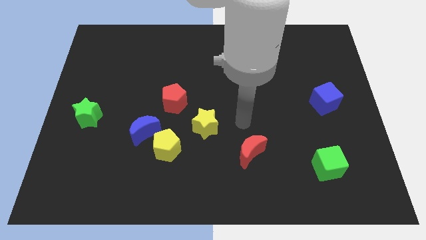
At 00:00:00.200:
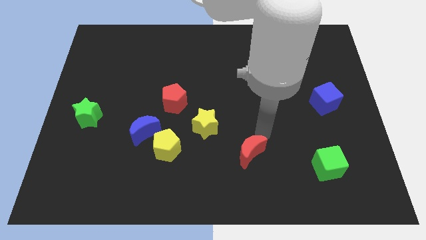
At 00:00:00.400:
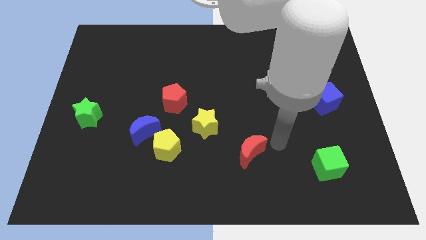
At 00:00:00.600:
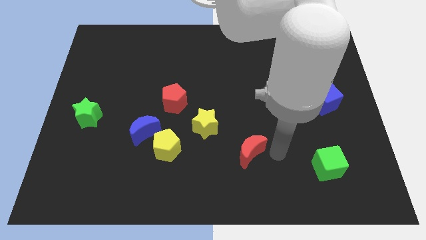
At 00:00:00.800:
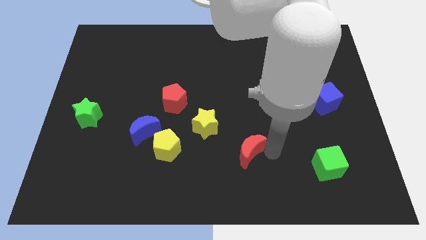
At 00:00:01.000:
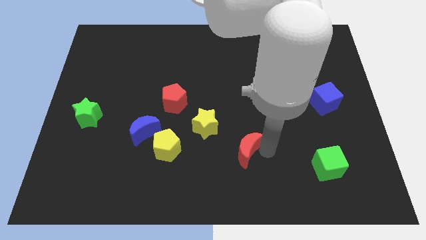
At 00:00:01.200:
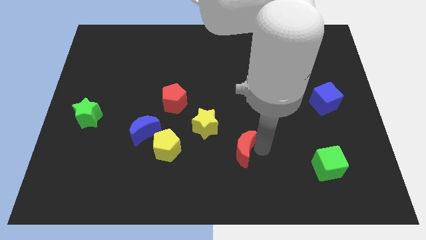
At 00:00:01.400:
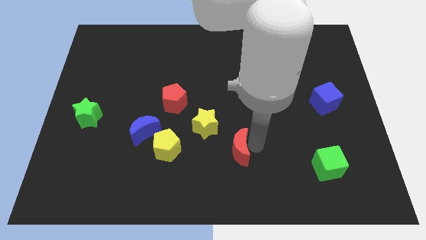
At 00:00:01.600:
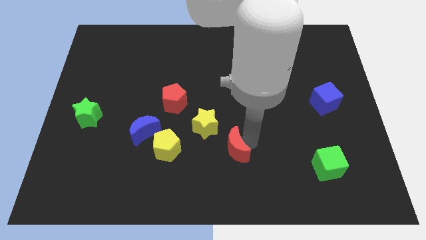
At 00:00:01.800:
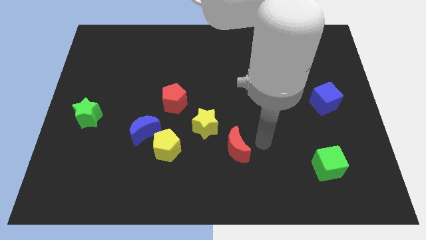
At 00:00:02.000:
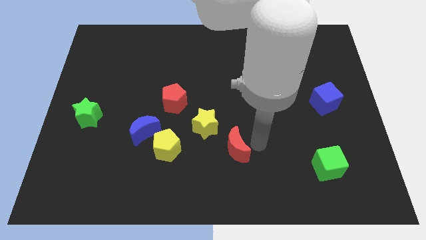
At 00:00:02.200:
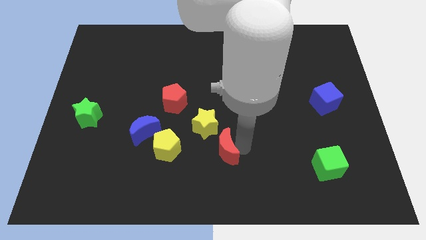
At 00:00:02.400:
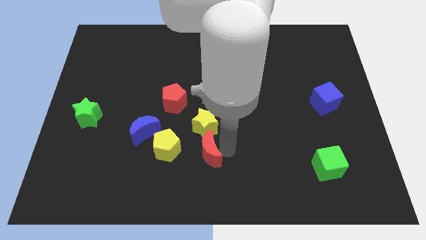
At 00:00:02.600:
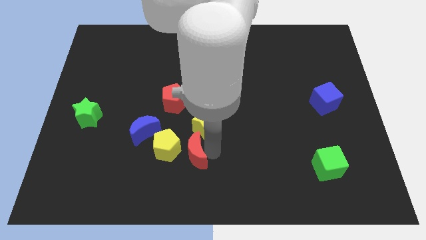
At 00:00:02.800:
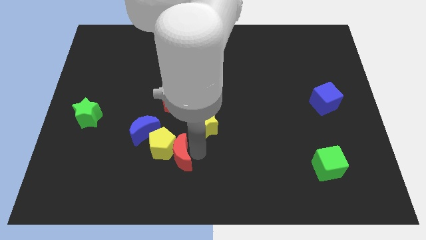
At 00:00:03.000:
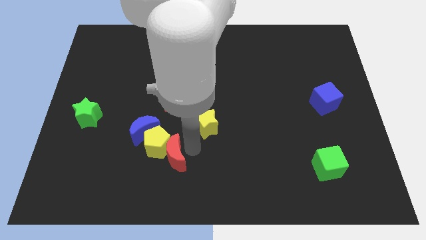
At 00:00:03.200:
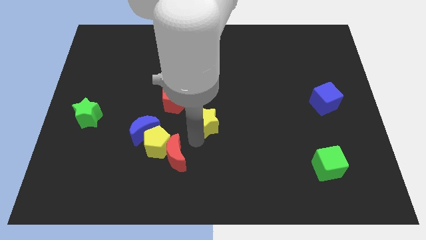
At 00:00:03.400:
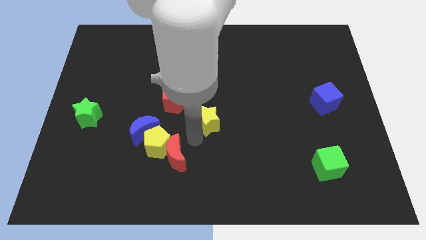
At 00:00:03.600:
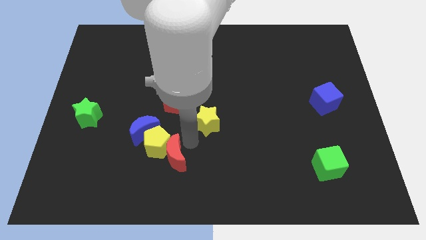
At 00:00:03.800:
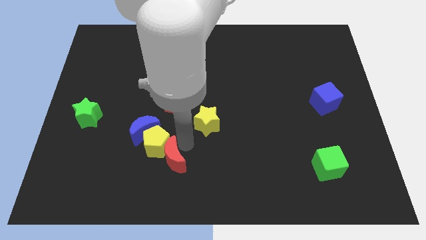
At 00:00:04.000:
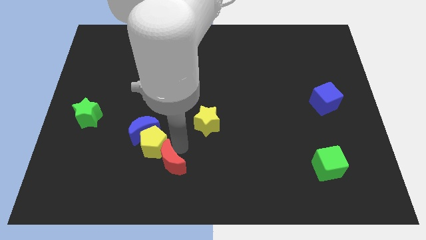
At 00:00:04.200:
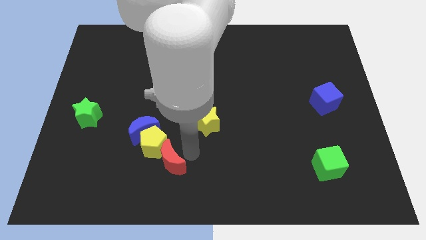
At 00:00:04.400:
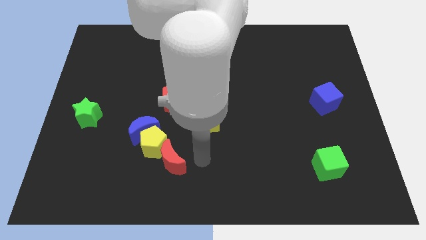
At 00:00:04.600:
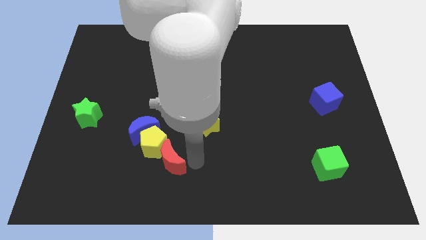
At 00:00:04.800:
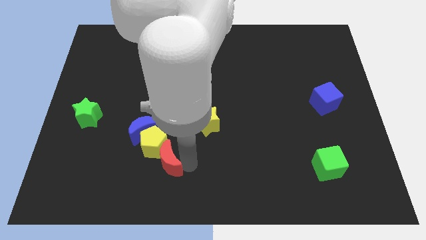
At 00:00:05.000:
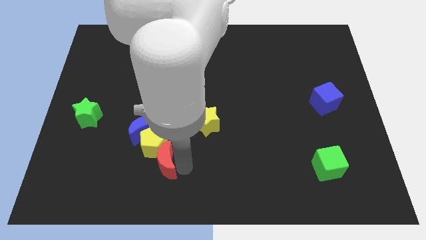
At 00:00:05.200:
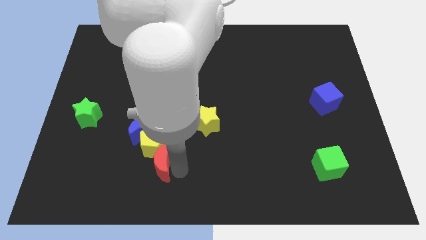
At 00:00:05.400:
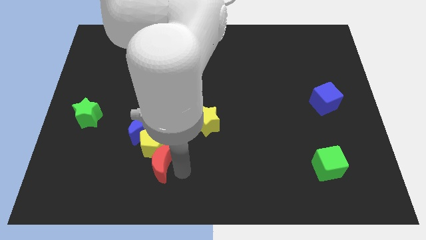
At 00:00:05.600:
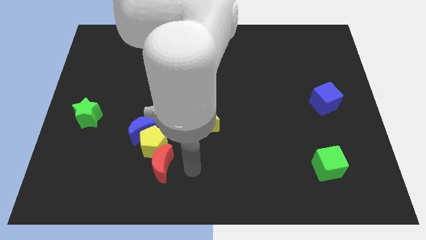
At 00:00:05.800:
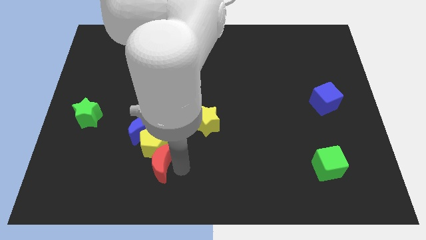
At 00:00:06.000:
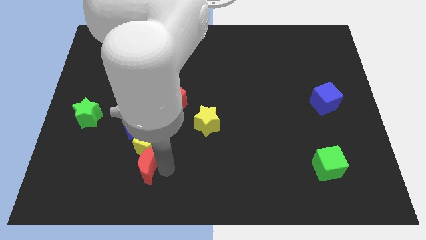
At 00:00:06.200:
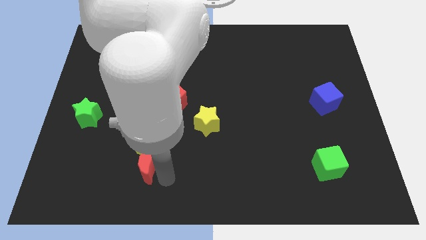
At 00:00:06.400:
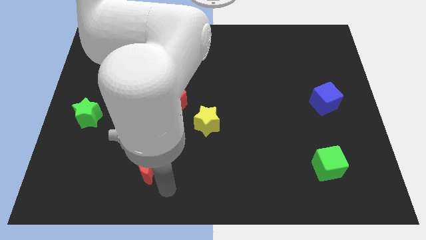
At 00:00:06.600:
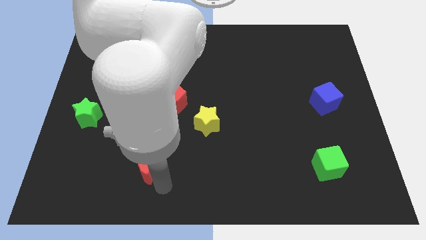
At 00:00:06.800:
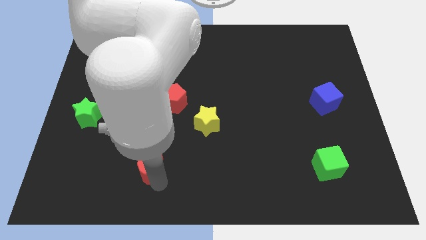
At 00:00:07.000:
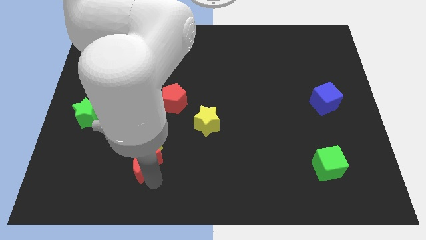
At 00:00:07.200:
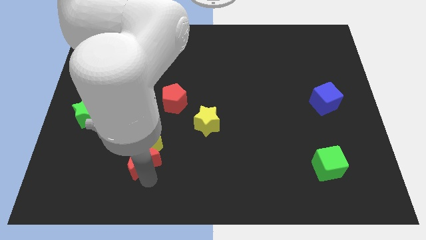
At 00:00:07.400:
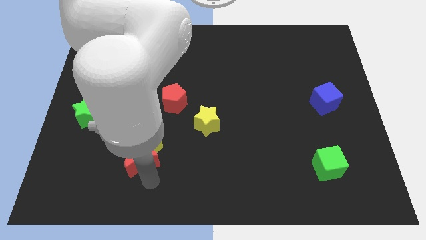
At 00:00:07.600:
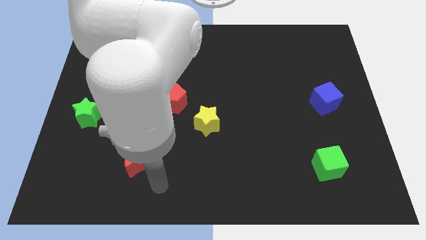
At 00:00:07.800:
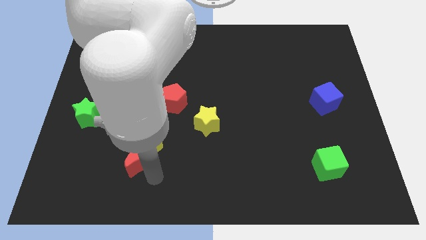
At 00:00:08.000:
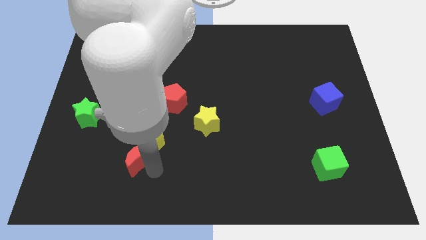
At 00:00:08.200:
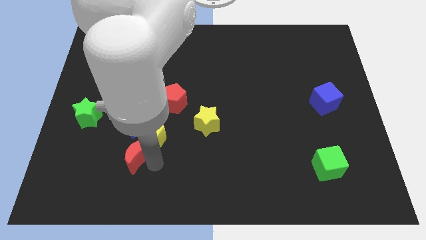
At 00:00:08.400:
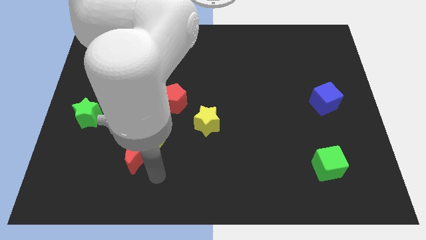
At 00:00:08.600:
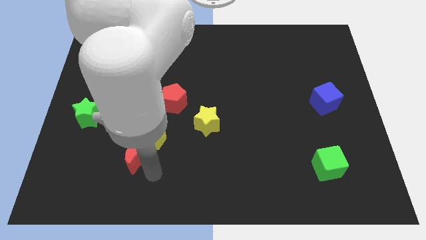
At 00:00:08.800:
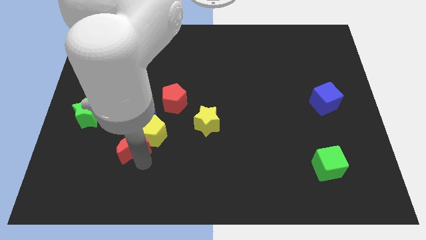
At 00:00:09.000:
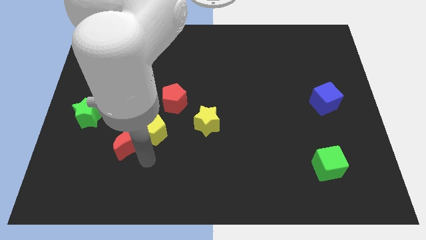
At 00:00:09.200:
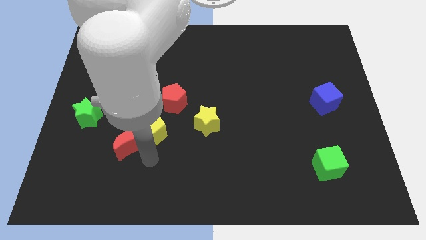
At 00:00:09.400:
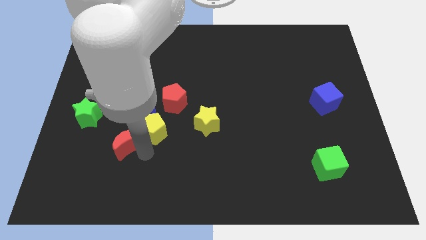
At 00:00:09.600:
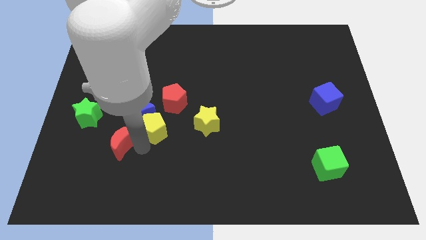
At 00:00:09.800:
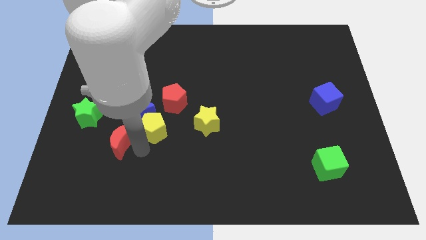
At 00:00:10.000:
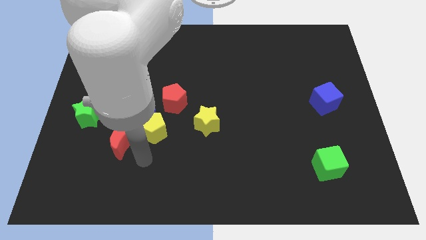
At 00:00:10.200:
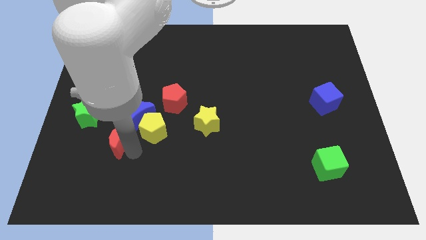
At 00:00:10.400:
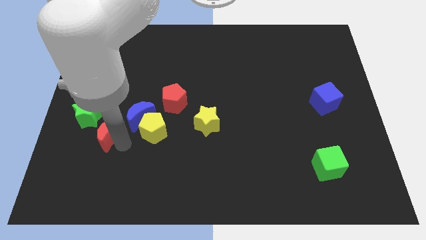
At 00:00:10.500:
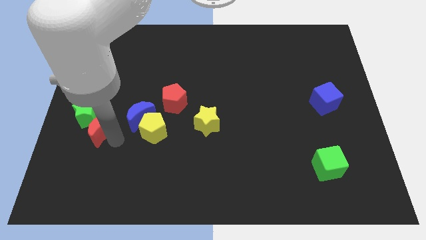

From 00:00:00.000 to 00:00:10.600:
push the red moon close to the green star

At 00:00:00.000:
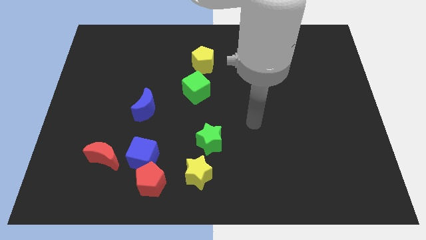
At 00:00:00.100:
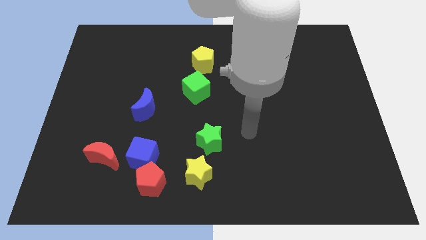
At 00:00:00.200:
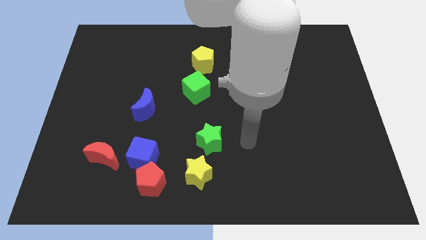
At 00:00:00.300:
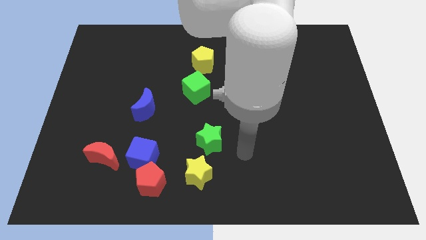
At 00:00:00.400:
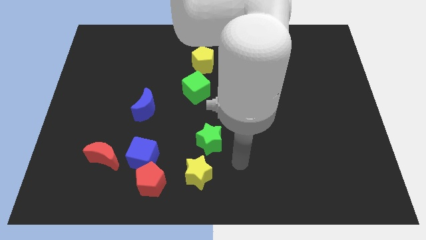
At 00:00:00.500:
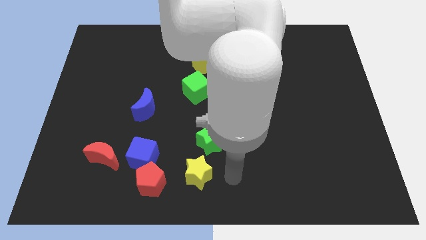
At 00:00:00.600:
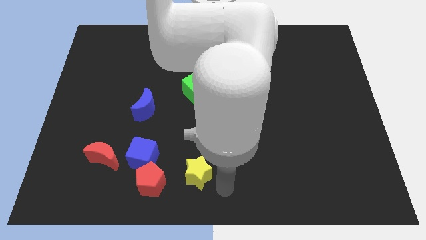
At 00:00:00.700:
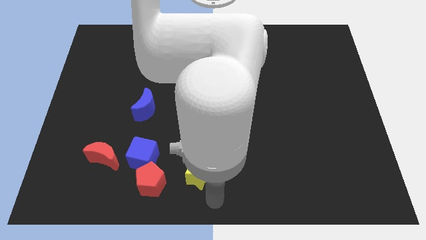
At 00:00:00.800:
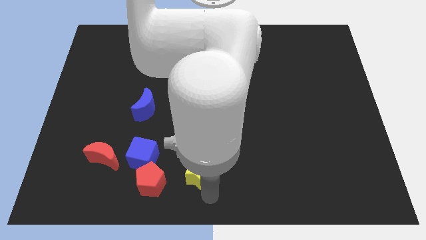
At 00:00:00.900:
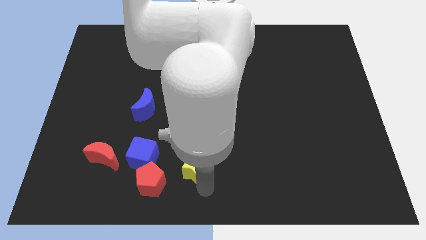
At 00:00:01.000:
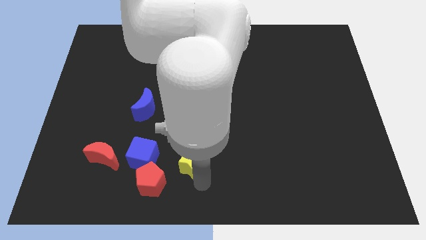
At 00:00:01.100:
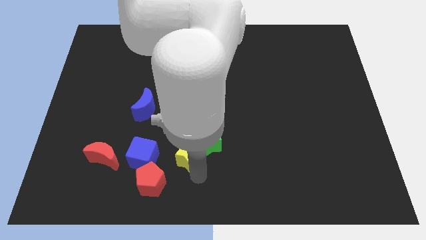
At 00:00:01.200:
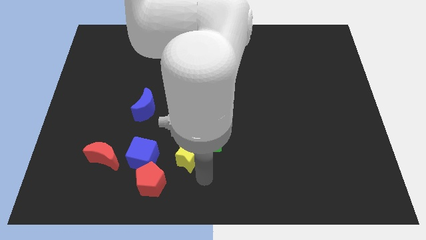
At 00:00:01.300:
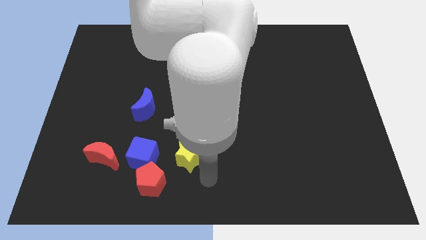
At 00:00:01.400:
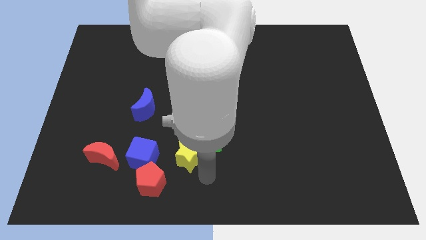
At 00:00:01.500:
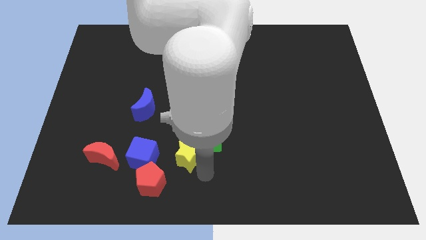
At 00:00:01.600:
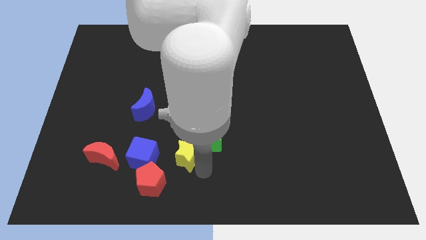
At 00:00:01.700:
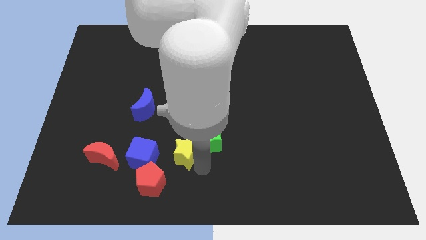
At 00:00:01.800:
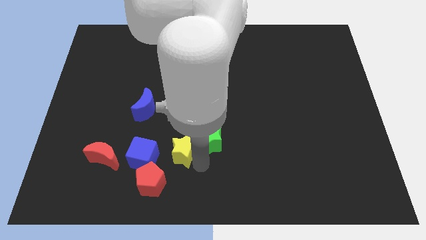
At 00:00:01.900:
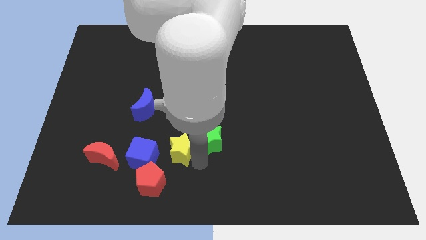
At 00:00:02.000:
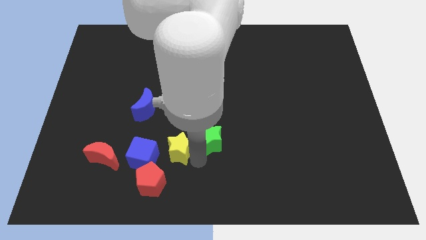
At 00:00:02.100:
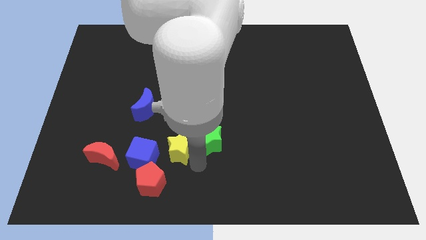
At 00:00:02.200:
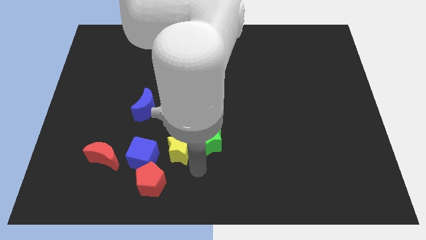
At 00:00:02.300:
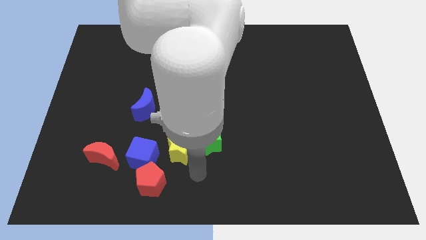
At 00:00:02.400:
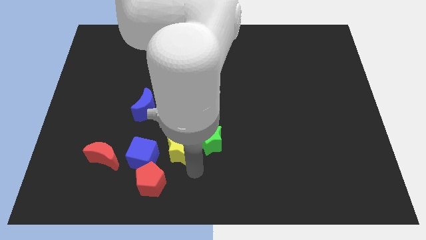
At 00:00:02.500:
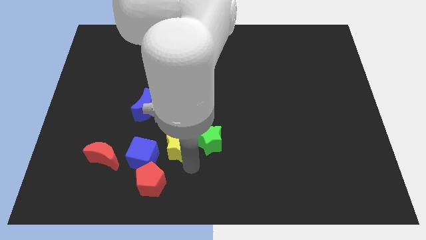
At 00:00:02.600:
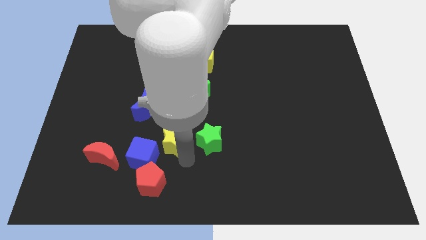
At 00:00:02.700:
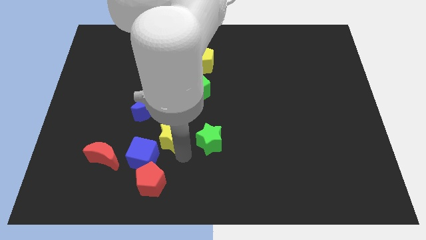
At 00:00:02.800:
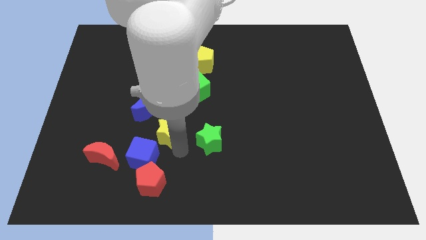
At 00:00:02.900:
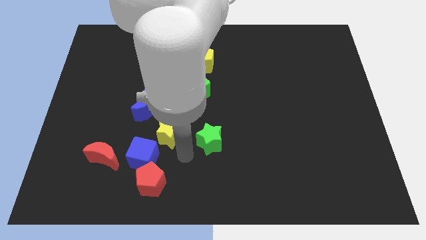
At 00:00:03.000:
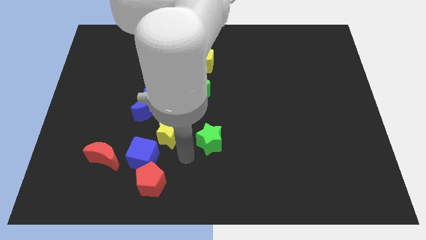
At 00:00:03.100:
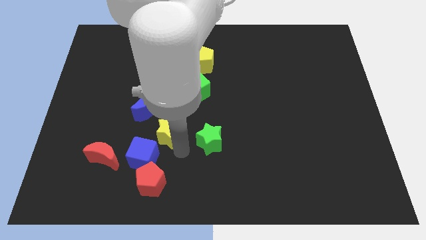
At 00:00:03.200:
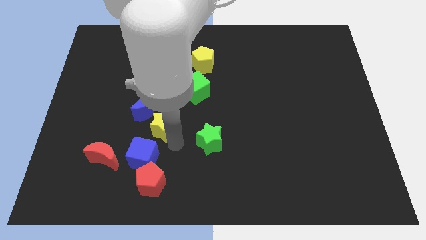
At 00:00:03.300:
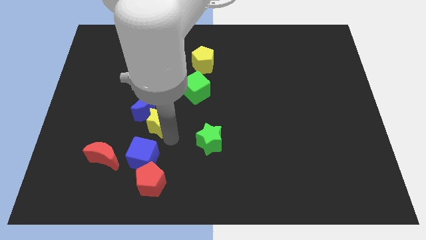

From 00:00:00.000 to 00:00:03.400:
put the yellow star close to the blue moon
